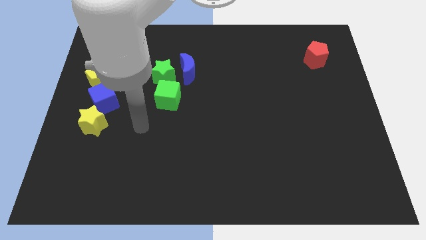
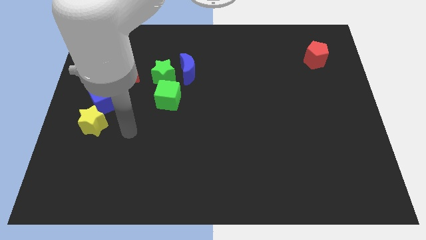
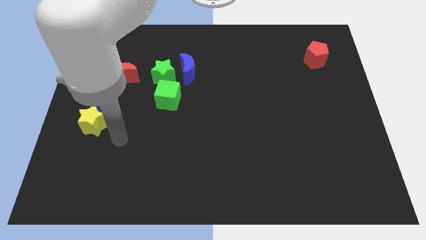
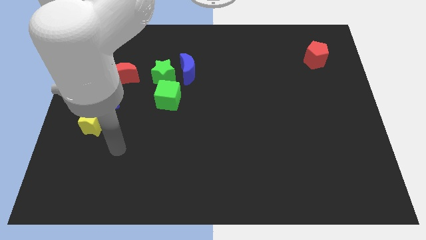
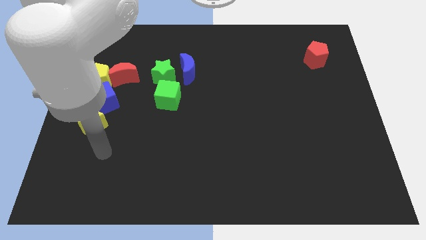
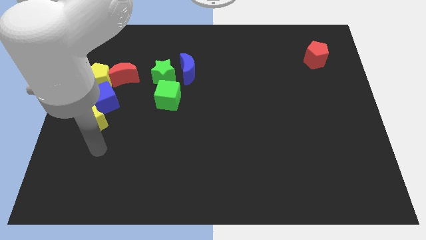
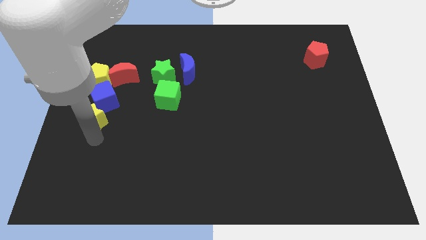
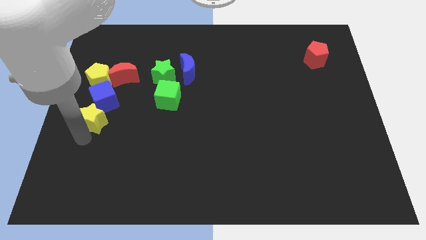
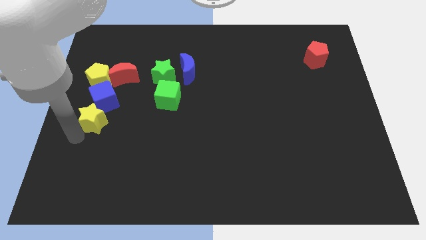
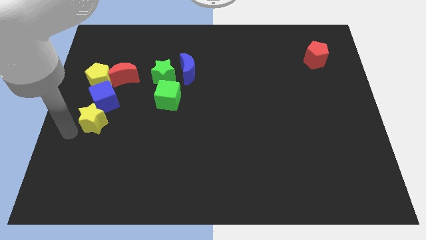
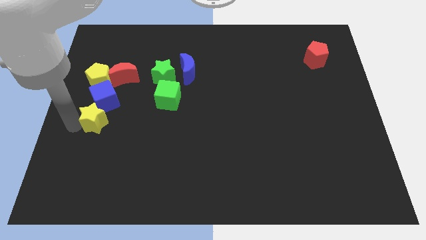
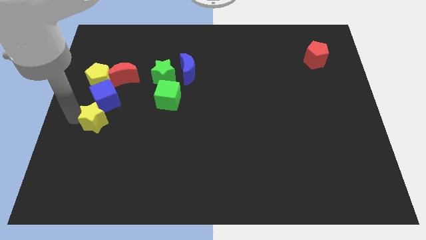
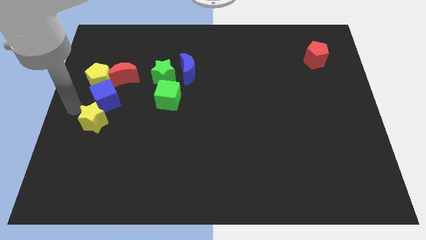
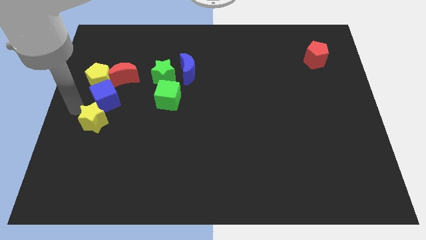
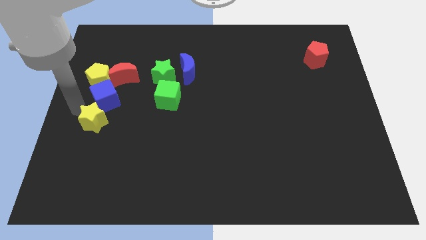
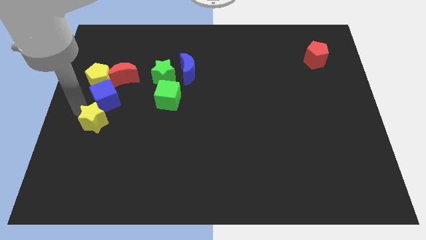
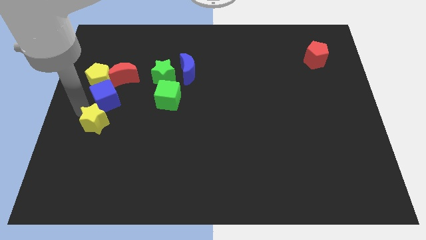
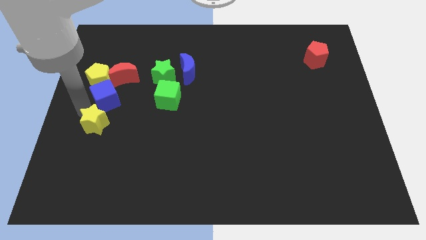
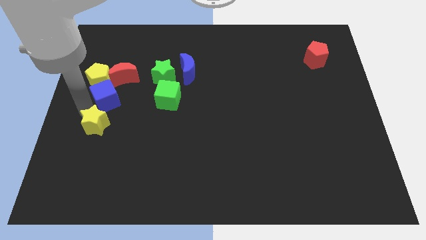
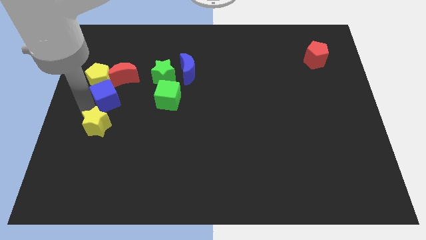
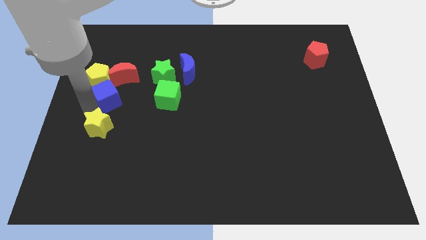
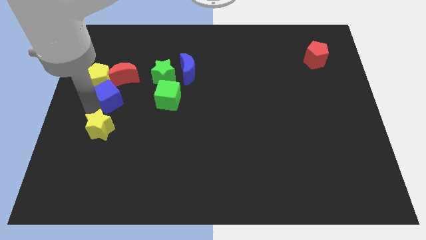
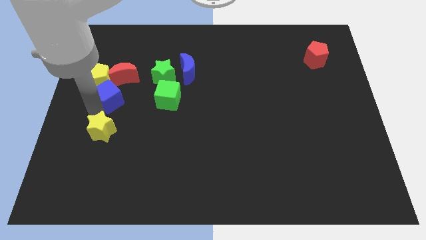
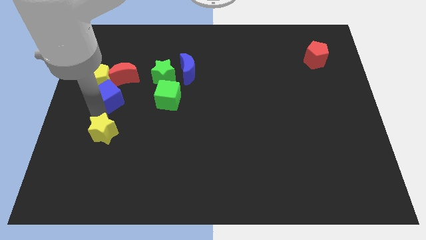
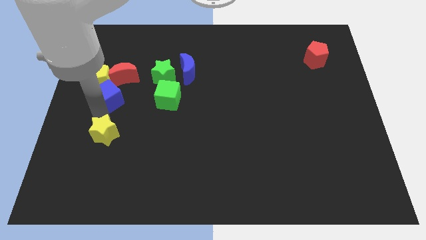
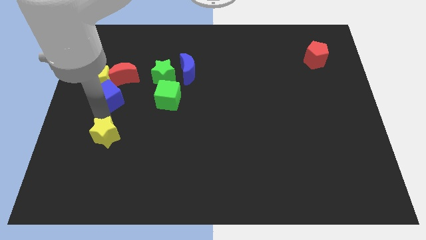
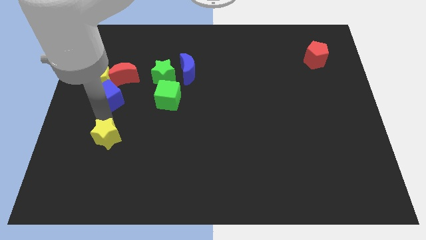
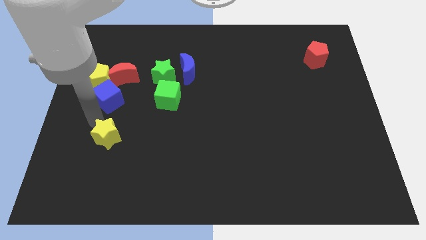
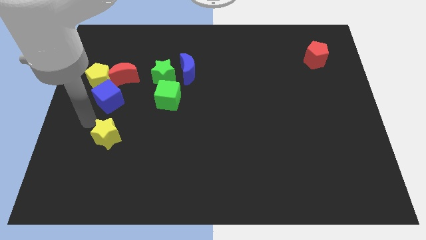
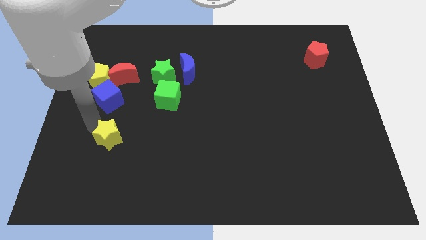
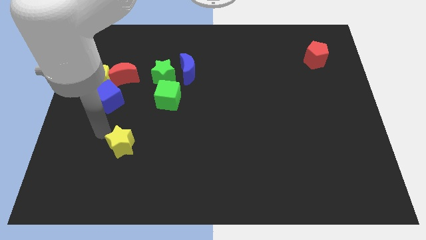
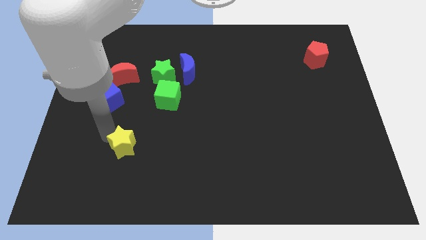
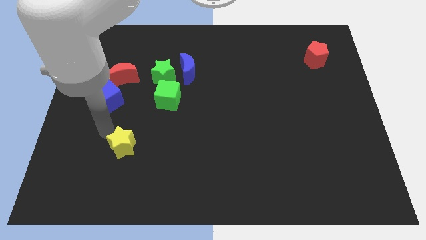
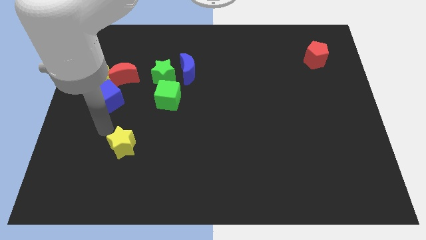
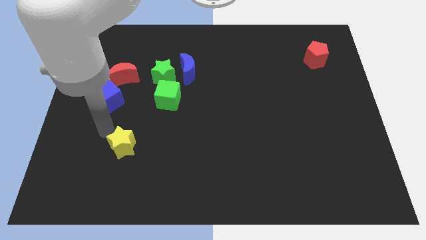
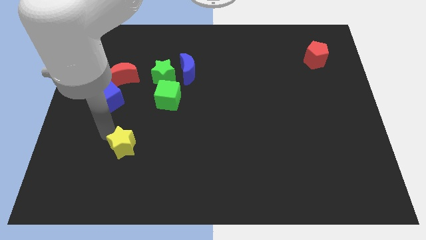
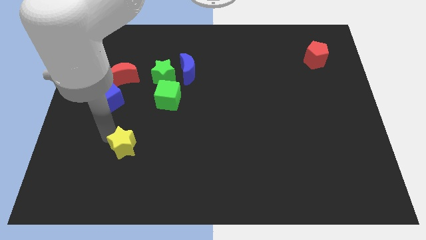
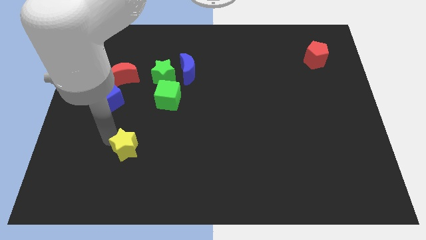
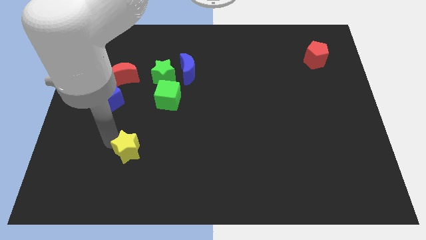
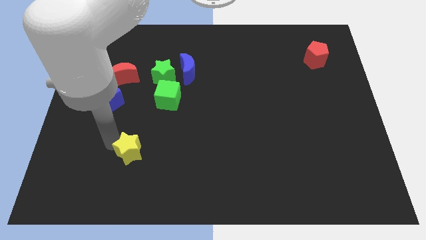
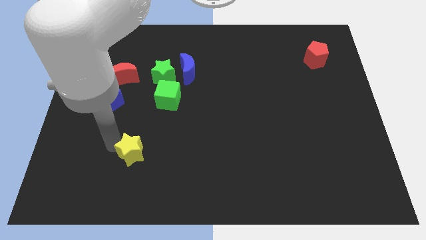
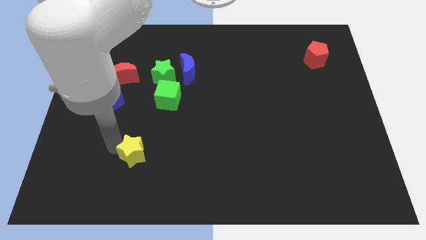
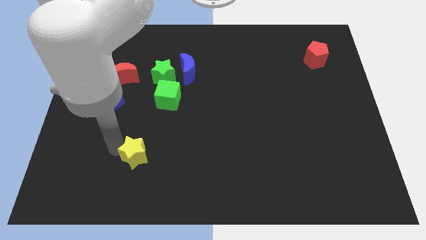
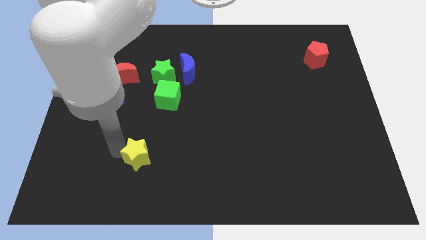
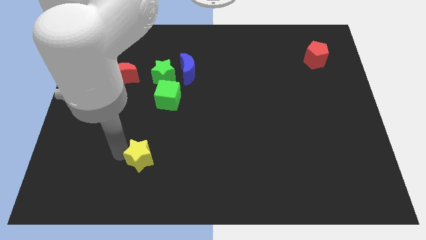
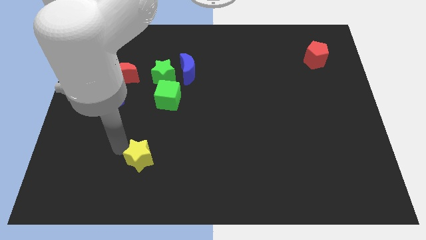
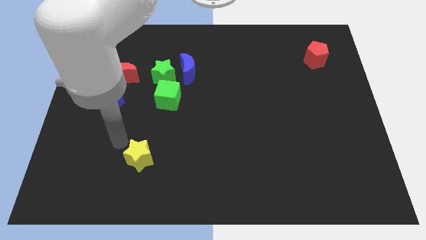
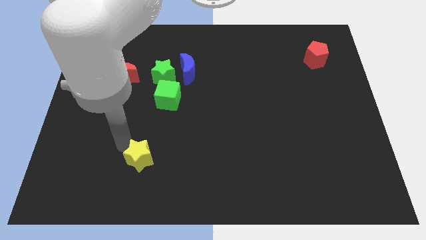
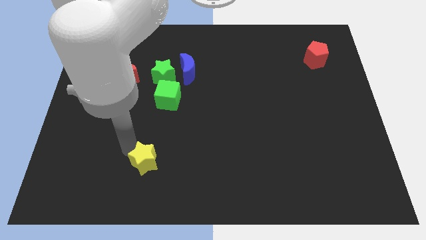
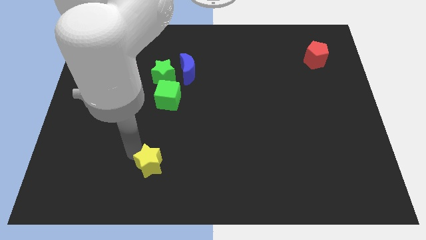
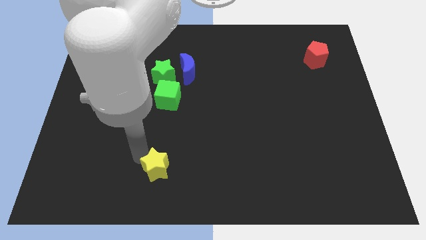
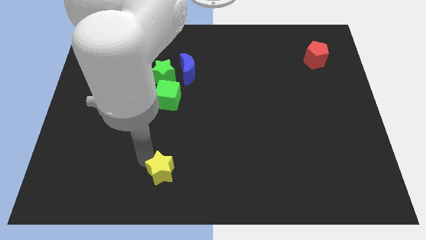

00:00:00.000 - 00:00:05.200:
put the yellow star to the bottom

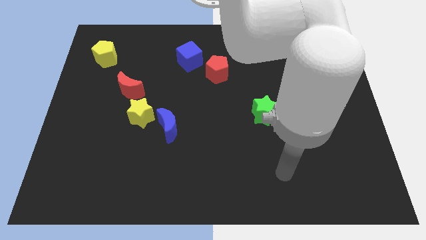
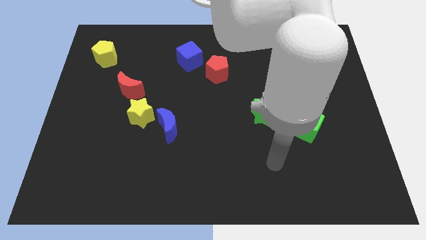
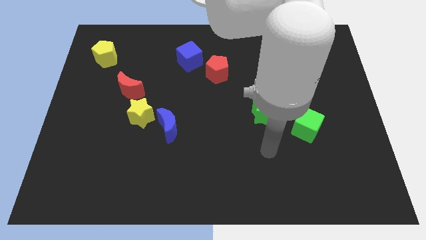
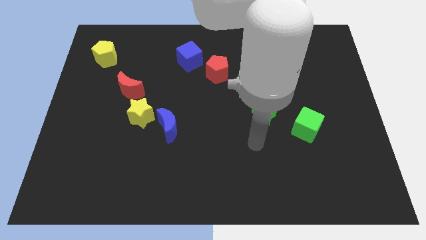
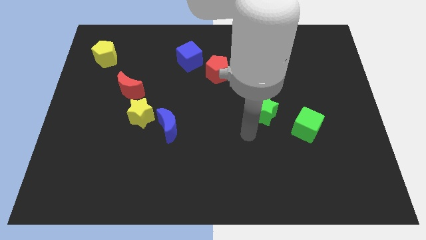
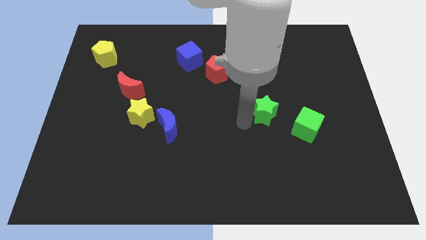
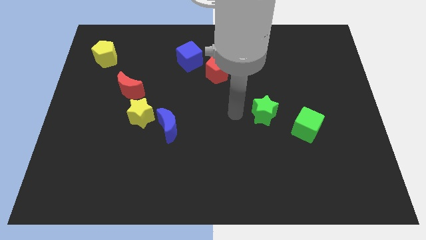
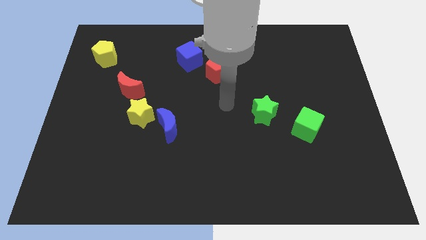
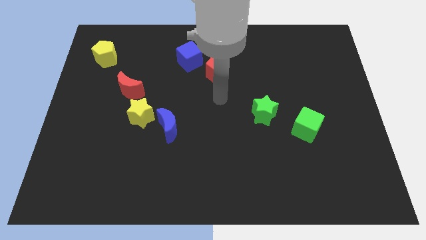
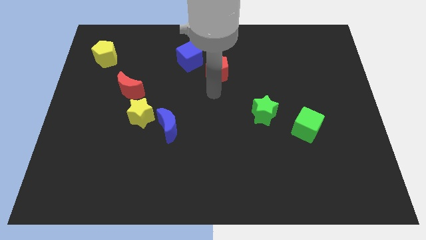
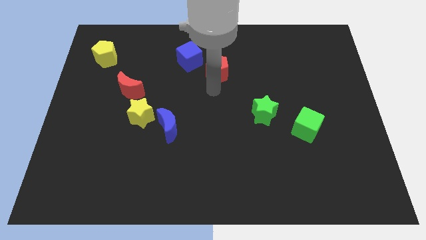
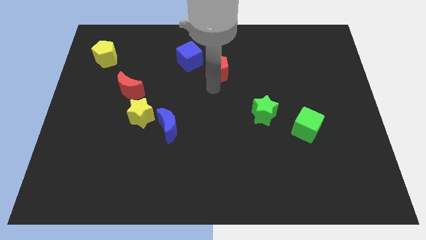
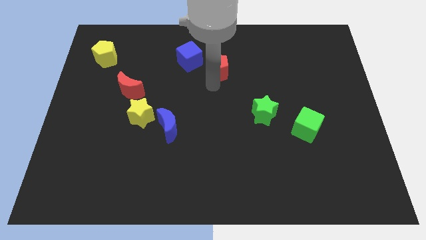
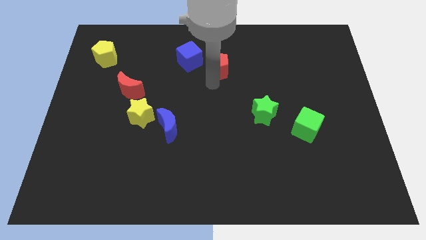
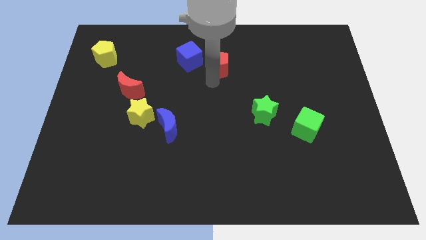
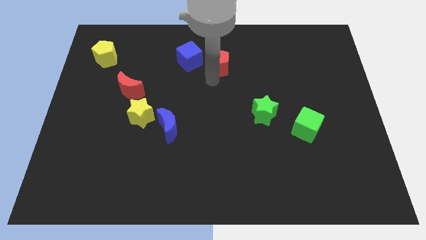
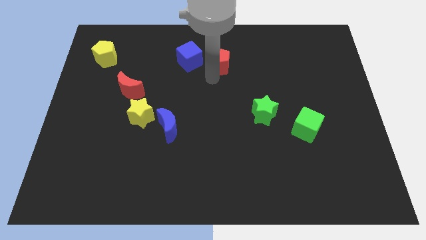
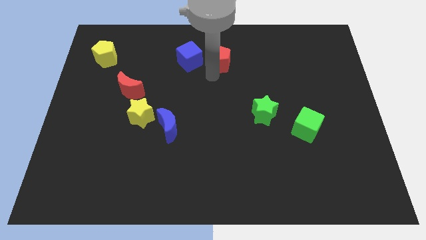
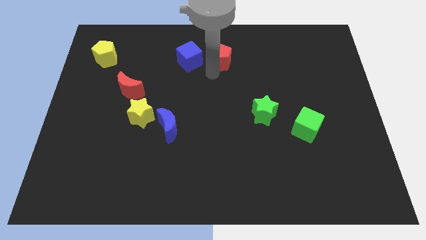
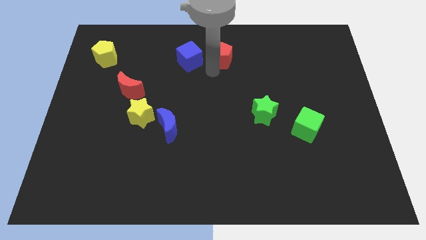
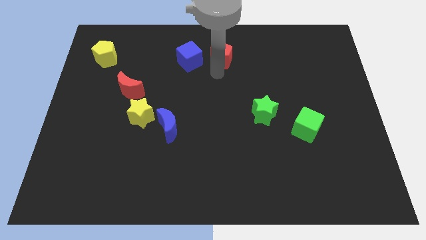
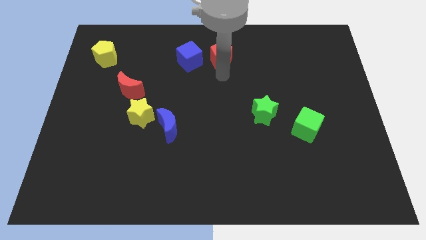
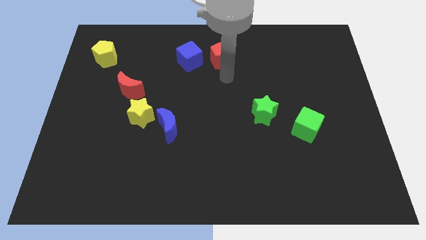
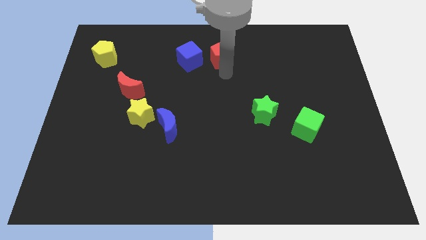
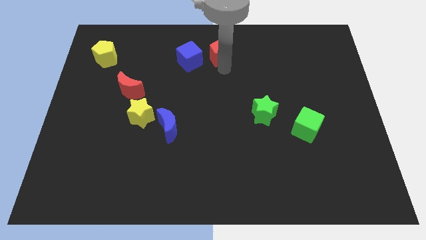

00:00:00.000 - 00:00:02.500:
slide the red pentagon to the top
